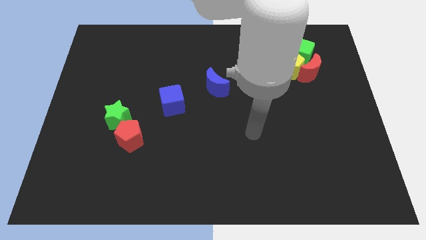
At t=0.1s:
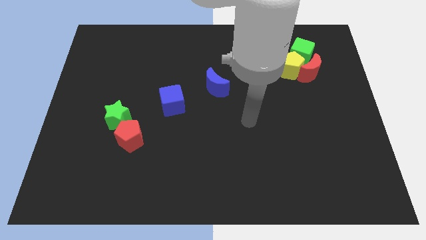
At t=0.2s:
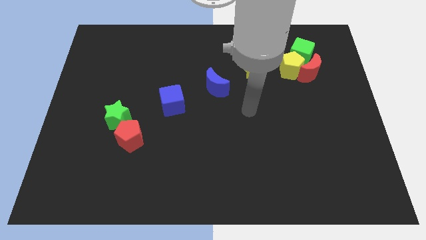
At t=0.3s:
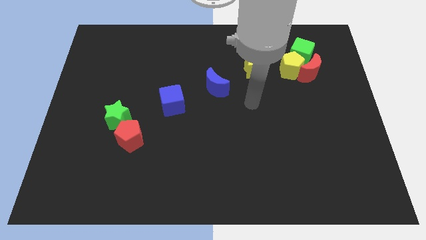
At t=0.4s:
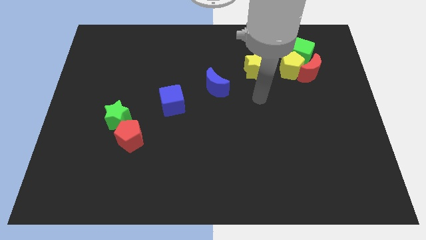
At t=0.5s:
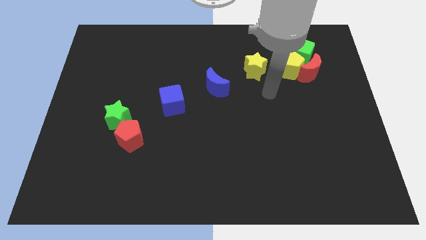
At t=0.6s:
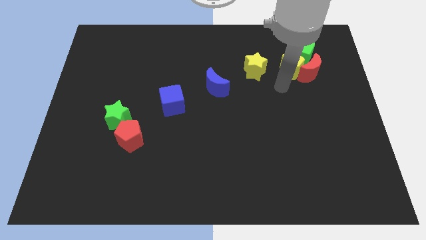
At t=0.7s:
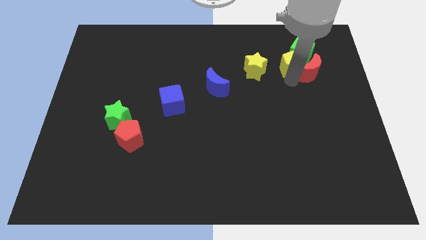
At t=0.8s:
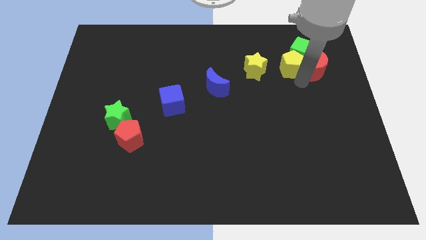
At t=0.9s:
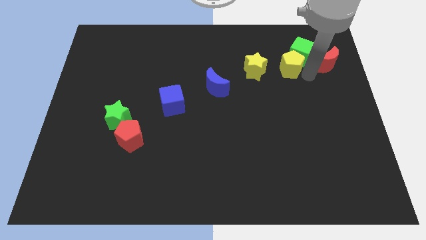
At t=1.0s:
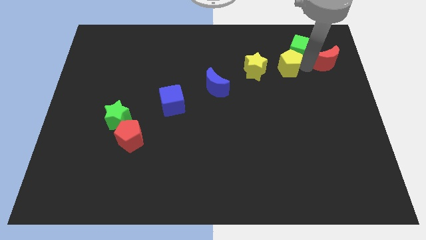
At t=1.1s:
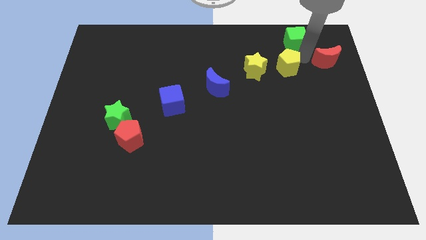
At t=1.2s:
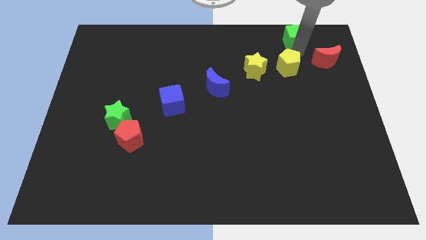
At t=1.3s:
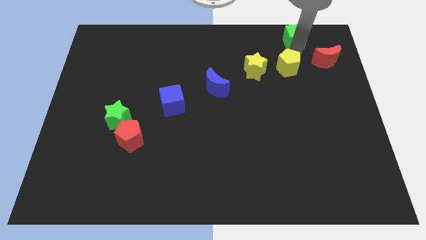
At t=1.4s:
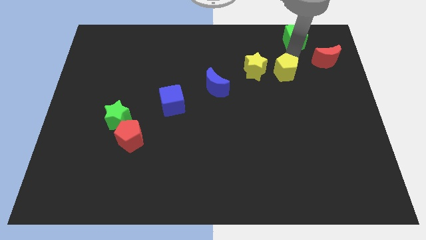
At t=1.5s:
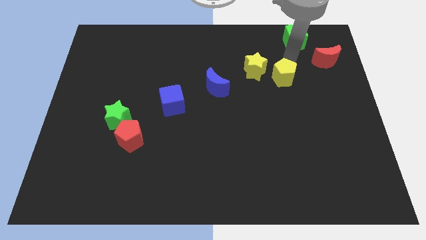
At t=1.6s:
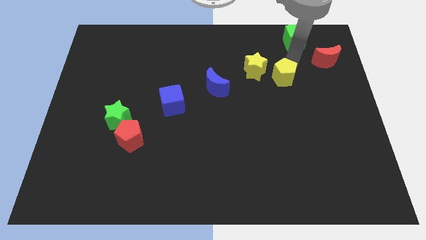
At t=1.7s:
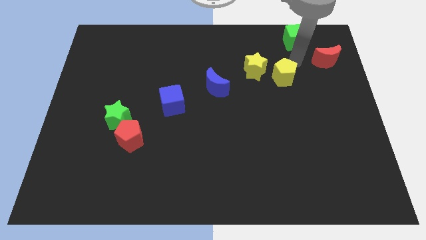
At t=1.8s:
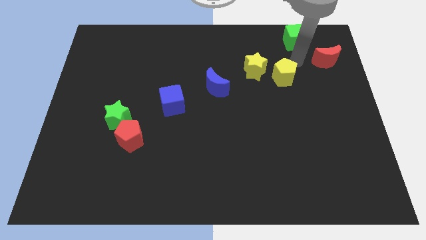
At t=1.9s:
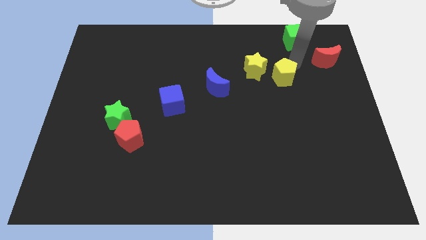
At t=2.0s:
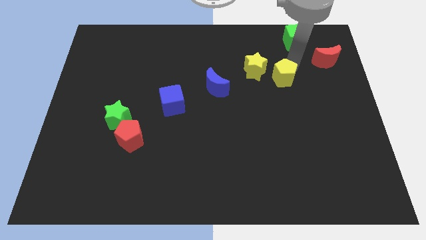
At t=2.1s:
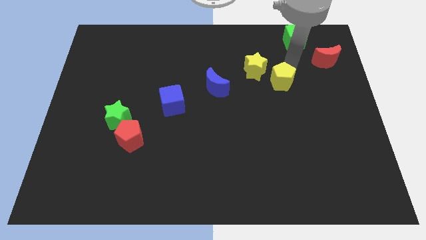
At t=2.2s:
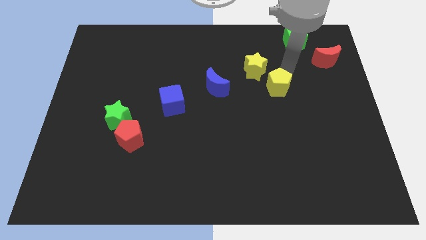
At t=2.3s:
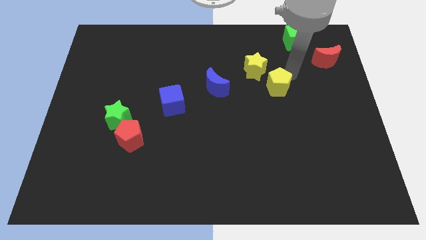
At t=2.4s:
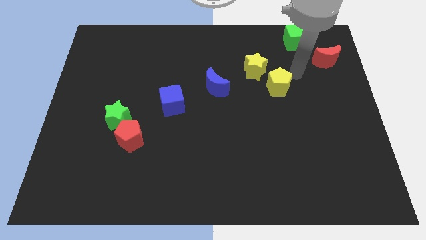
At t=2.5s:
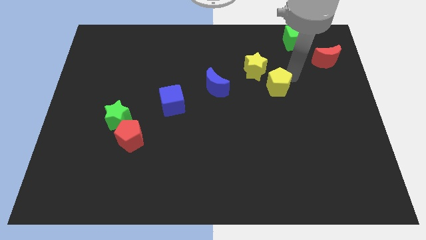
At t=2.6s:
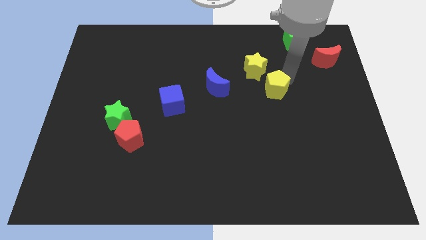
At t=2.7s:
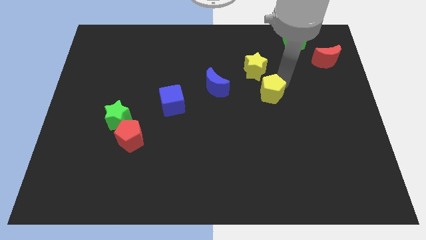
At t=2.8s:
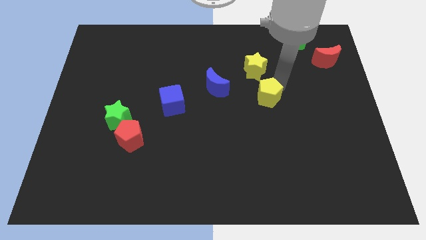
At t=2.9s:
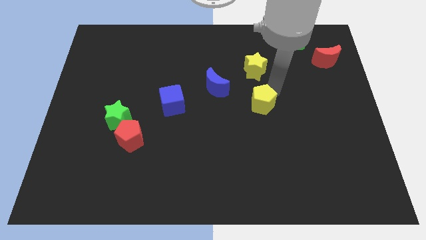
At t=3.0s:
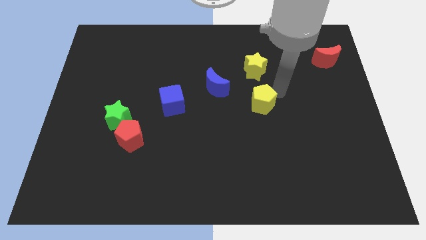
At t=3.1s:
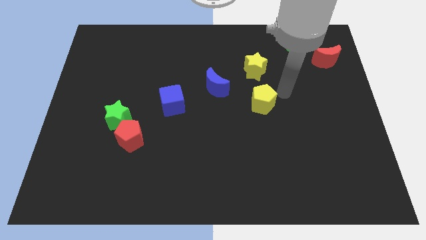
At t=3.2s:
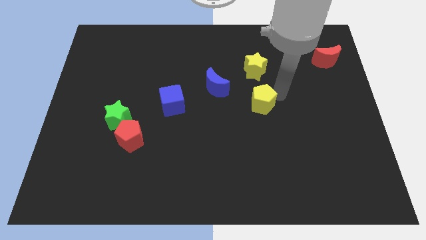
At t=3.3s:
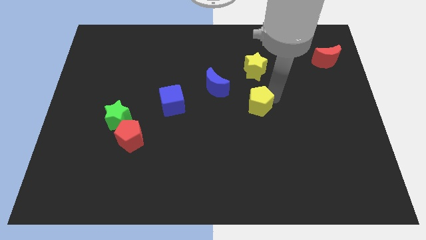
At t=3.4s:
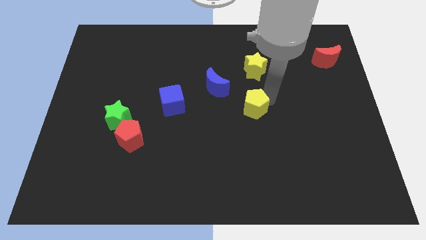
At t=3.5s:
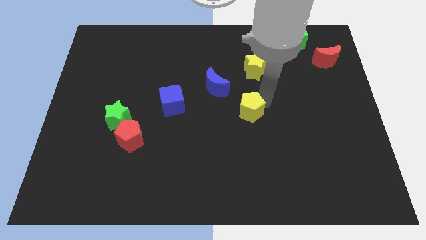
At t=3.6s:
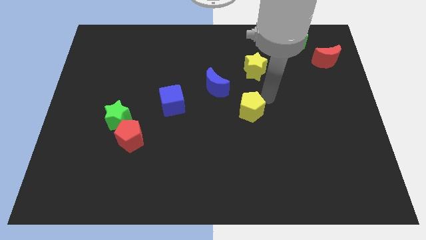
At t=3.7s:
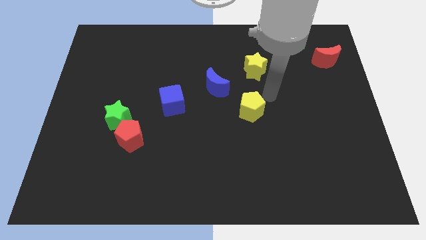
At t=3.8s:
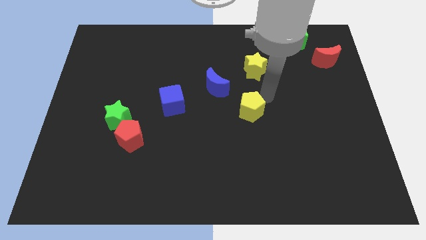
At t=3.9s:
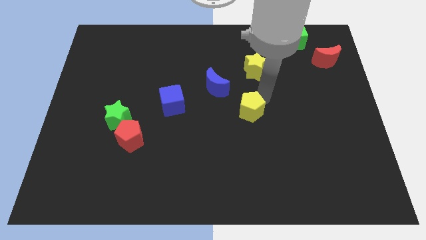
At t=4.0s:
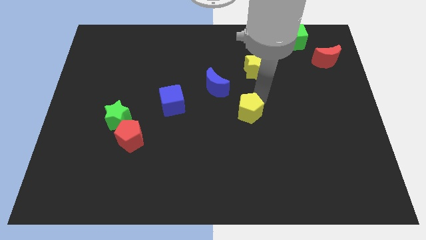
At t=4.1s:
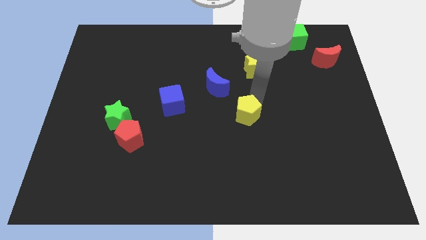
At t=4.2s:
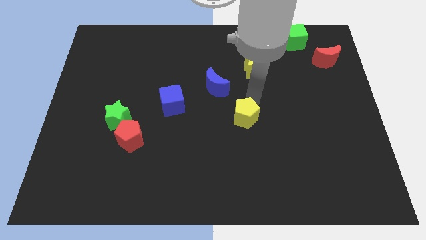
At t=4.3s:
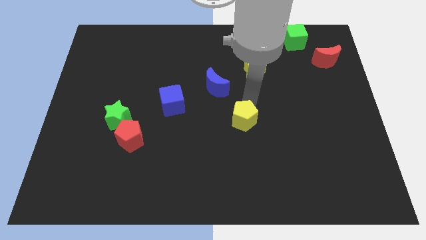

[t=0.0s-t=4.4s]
slide the yellow pentagon downwards and to the left diagonally

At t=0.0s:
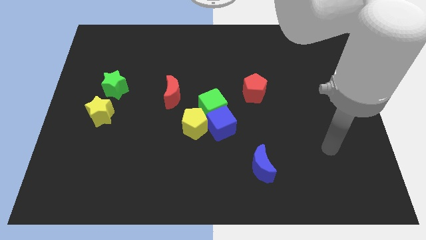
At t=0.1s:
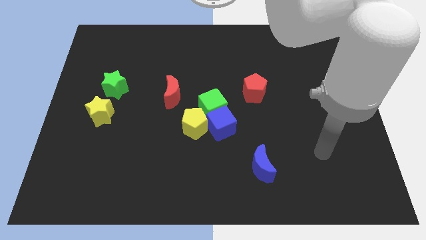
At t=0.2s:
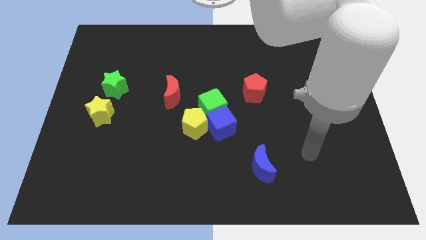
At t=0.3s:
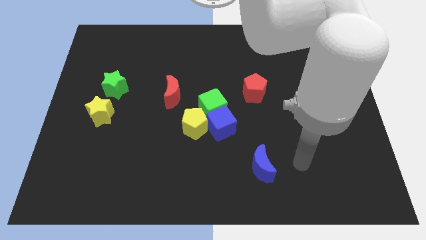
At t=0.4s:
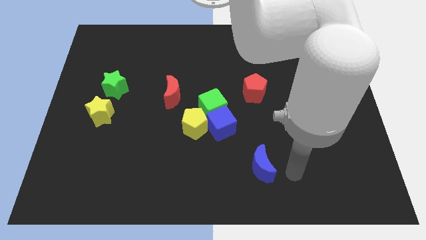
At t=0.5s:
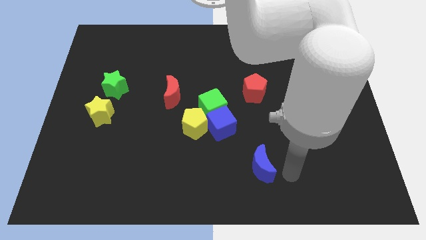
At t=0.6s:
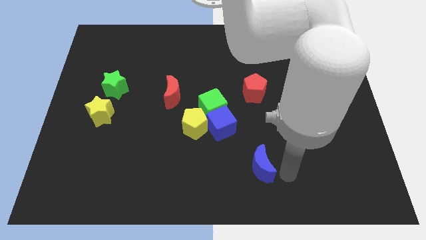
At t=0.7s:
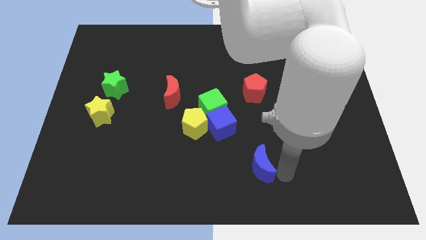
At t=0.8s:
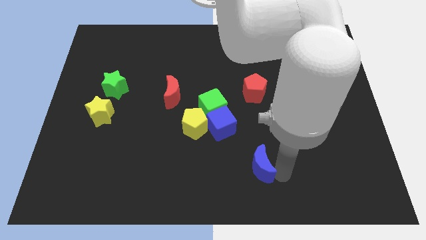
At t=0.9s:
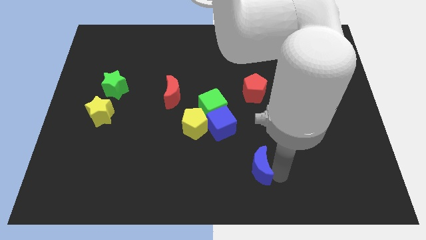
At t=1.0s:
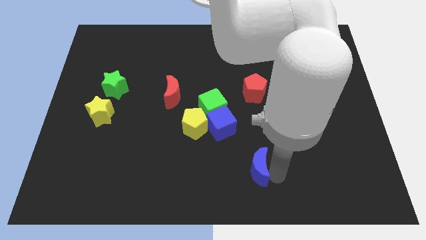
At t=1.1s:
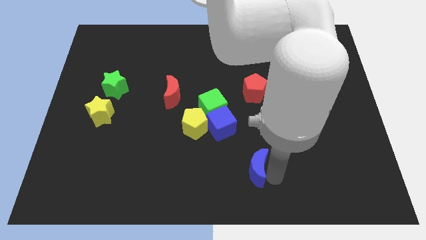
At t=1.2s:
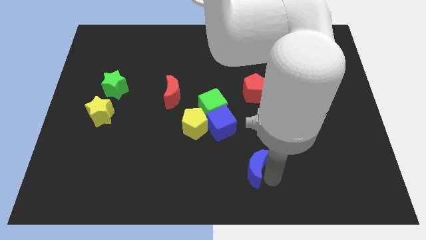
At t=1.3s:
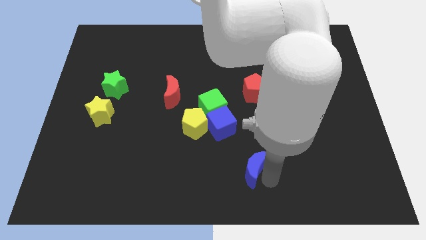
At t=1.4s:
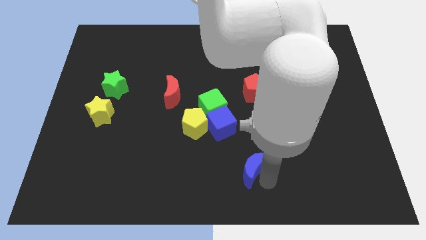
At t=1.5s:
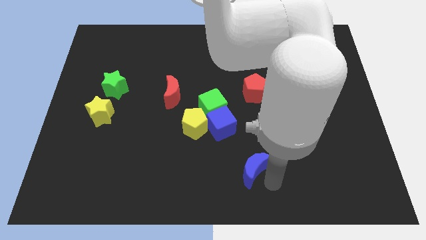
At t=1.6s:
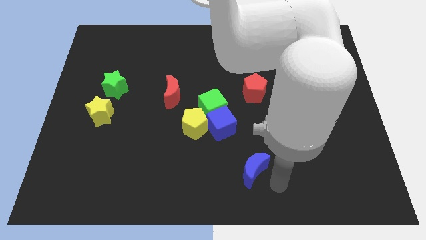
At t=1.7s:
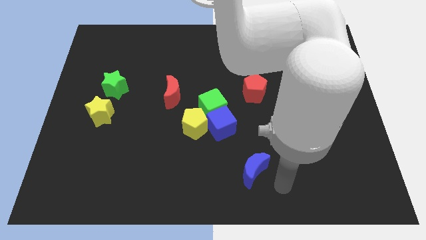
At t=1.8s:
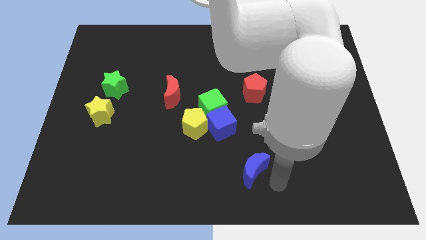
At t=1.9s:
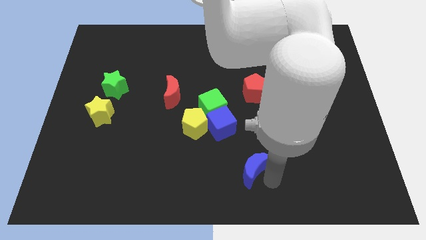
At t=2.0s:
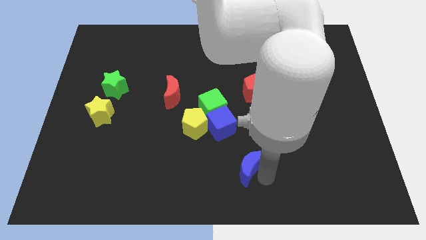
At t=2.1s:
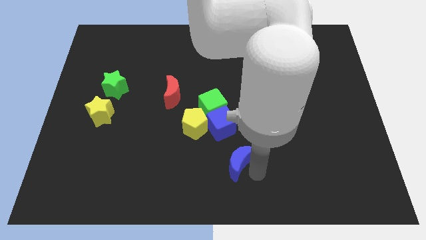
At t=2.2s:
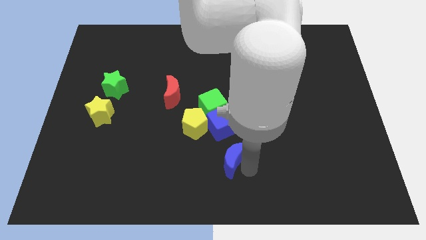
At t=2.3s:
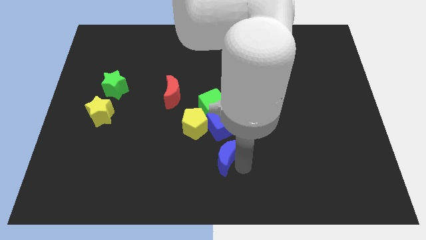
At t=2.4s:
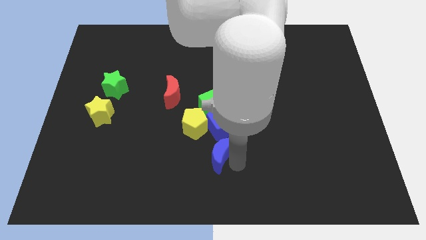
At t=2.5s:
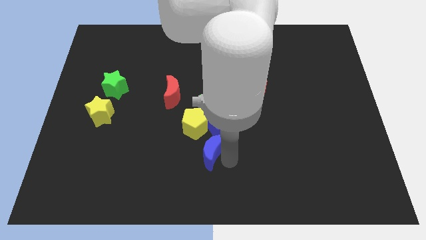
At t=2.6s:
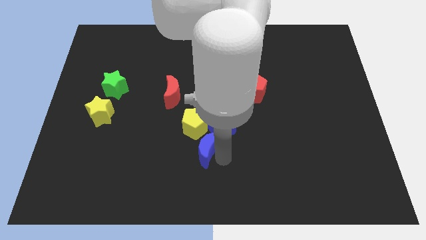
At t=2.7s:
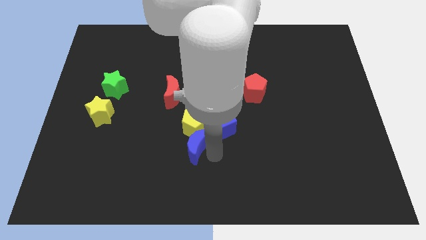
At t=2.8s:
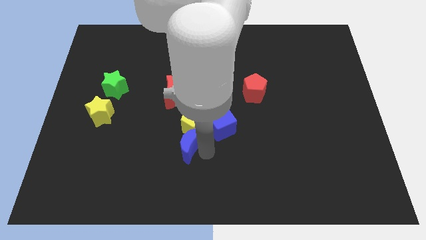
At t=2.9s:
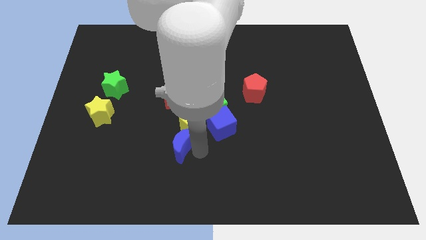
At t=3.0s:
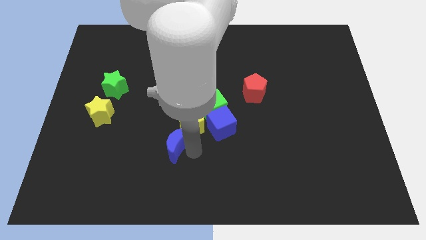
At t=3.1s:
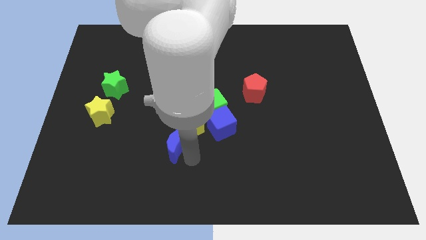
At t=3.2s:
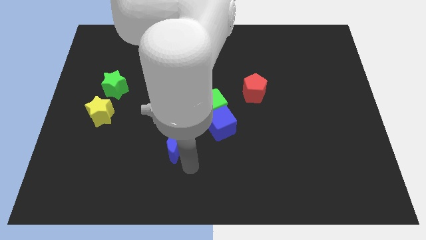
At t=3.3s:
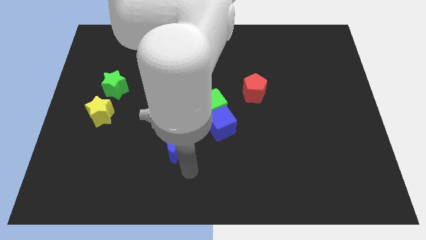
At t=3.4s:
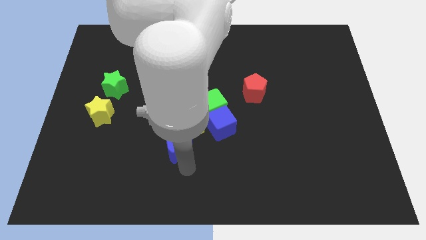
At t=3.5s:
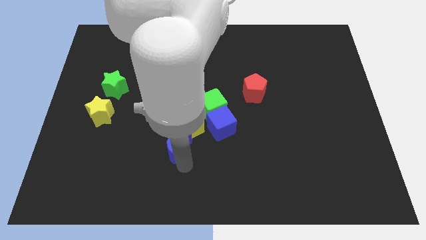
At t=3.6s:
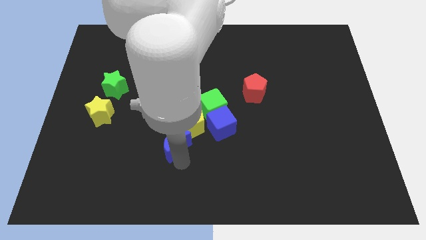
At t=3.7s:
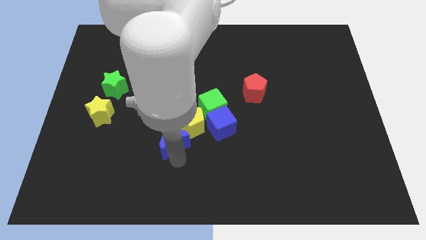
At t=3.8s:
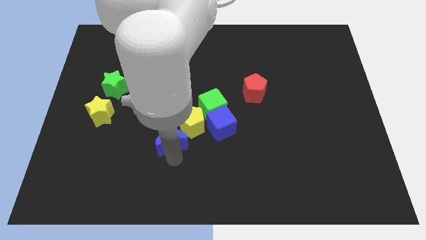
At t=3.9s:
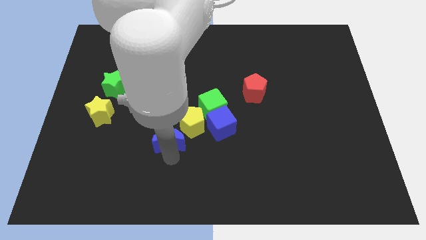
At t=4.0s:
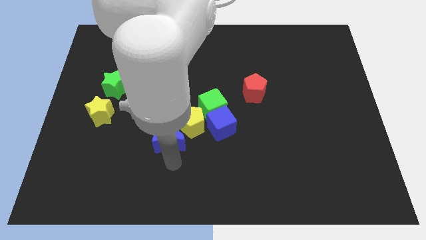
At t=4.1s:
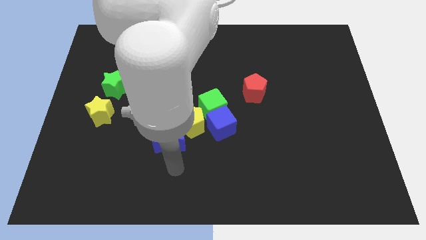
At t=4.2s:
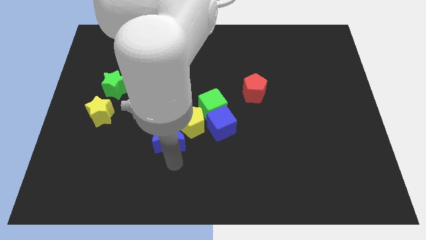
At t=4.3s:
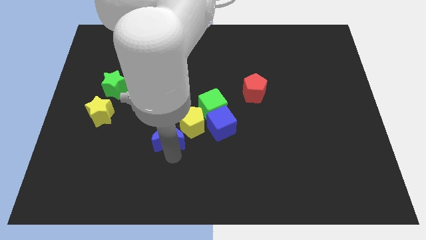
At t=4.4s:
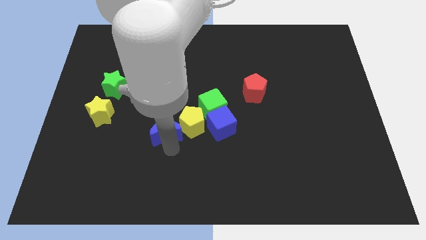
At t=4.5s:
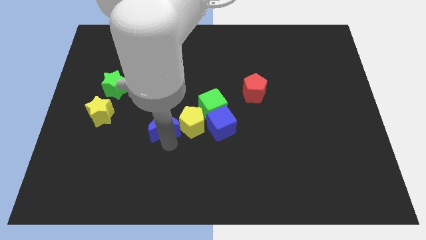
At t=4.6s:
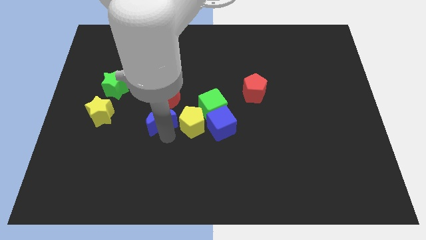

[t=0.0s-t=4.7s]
push the blue moon up and then to the left
